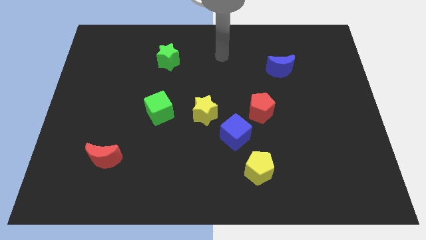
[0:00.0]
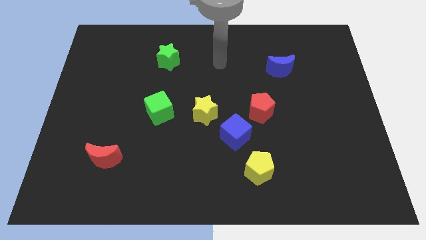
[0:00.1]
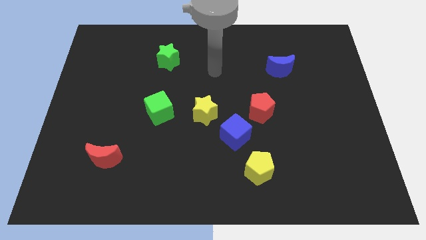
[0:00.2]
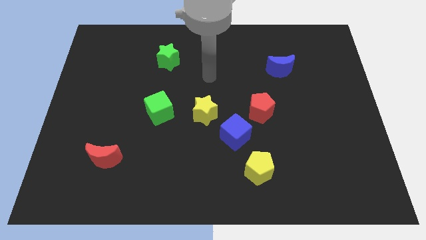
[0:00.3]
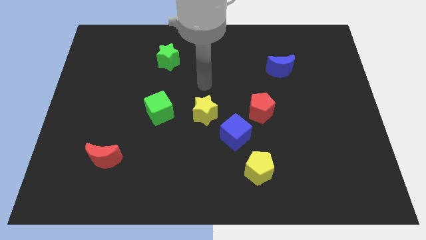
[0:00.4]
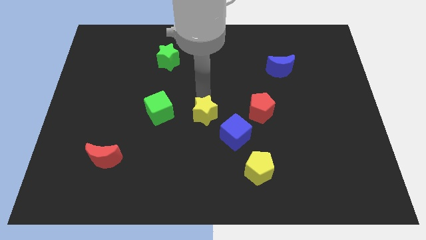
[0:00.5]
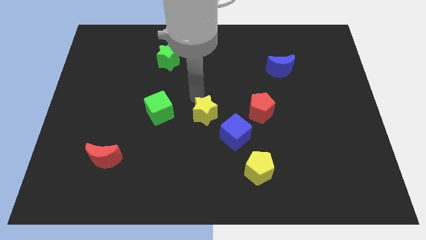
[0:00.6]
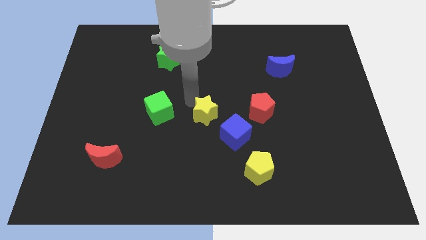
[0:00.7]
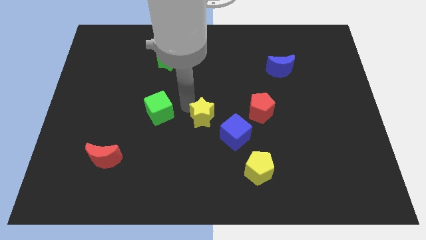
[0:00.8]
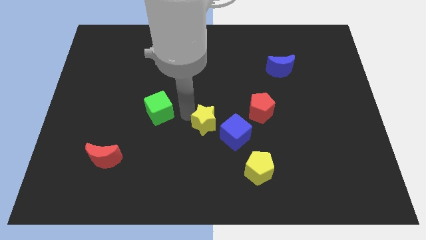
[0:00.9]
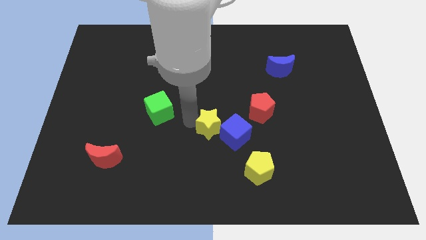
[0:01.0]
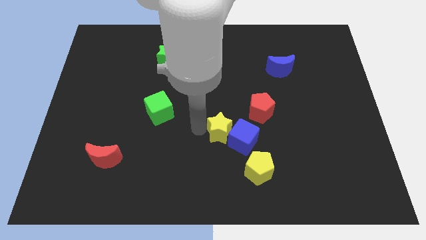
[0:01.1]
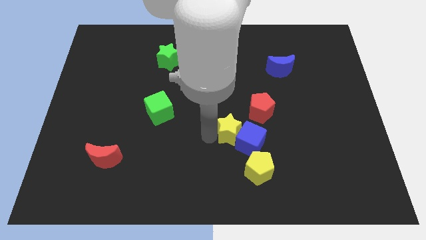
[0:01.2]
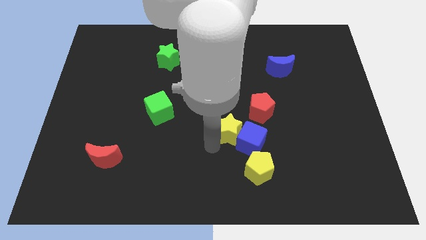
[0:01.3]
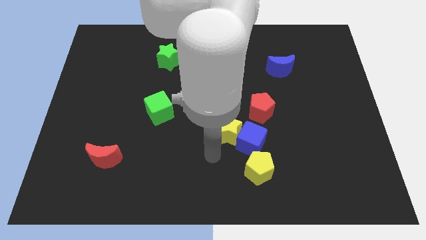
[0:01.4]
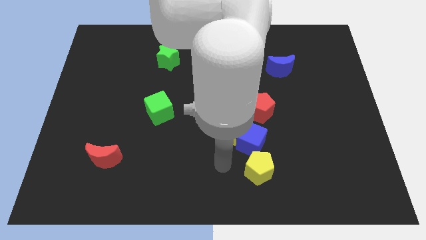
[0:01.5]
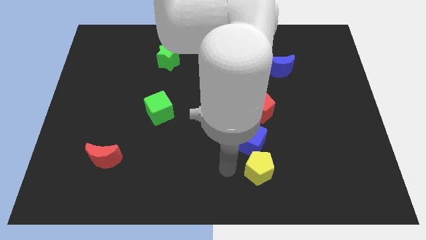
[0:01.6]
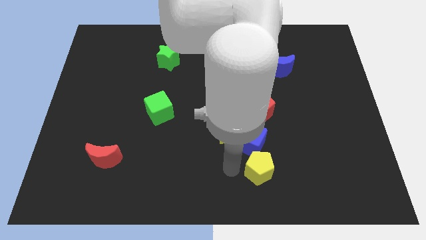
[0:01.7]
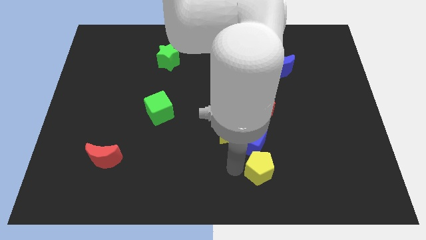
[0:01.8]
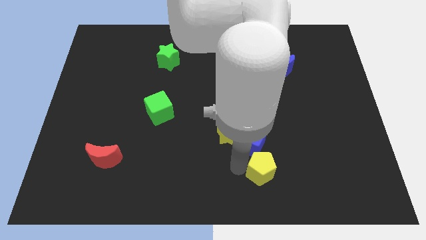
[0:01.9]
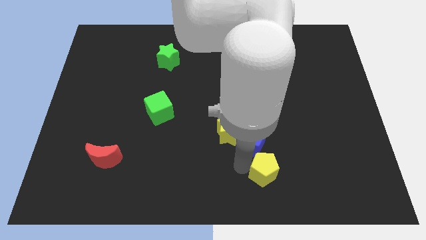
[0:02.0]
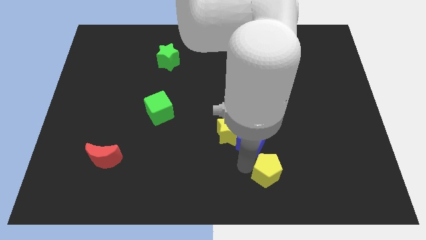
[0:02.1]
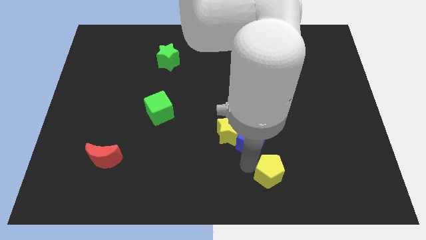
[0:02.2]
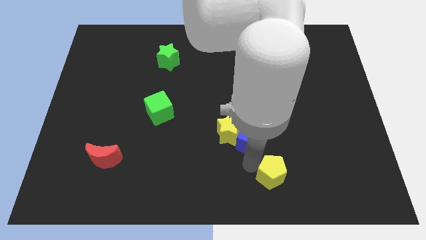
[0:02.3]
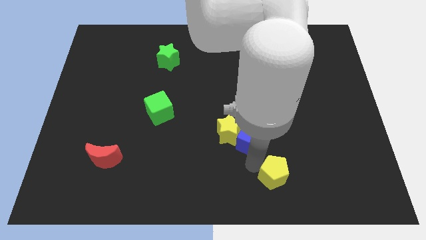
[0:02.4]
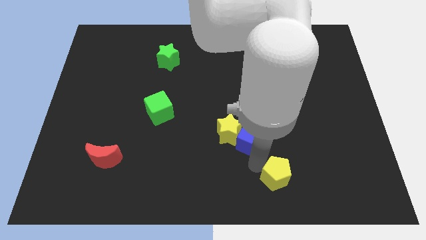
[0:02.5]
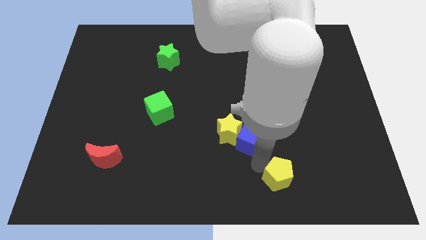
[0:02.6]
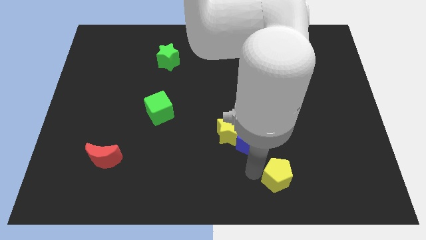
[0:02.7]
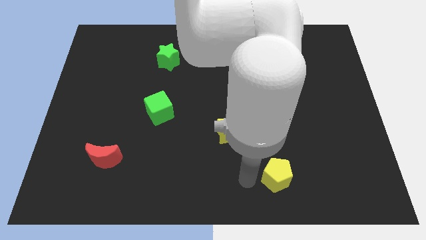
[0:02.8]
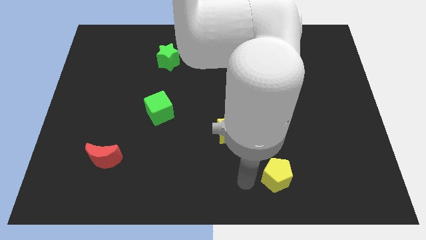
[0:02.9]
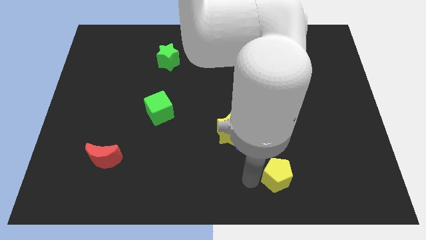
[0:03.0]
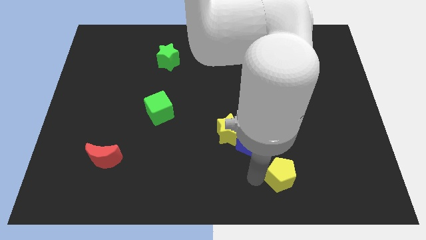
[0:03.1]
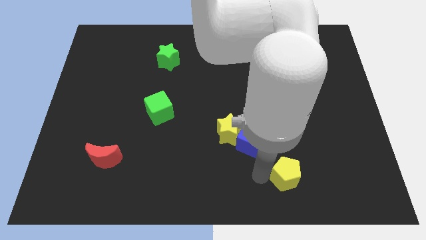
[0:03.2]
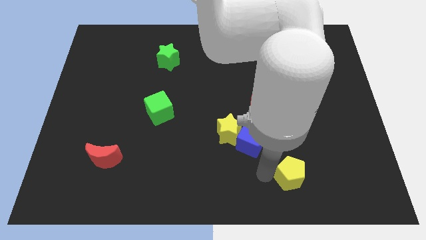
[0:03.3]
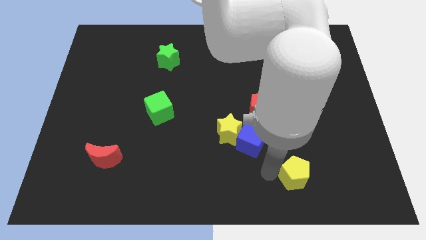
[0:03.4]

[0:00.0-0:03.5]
slightly move the yellow pentagon right

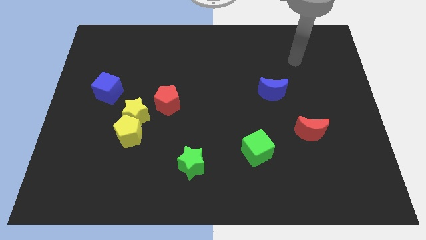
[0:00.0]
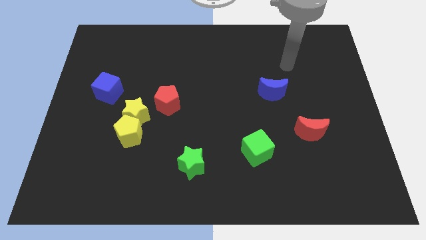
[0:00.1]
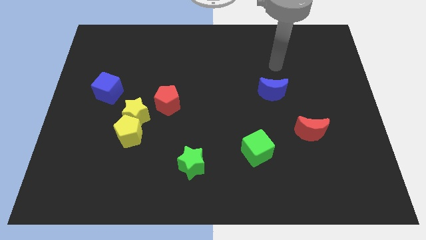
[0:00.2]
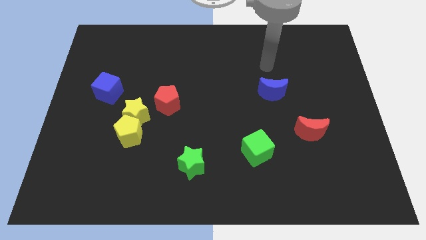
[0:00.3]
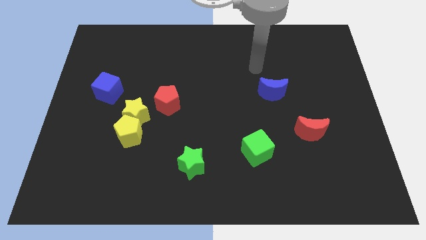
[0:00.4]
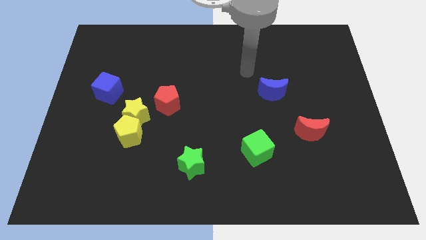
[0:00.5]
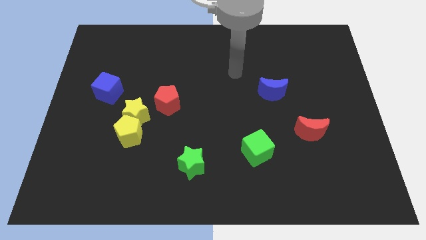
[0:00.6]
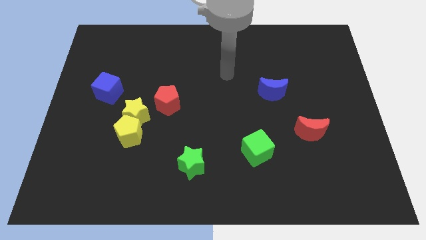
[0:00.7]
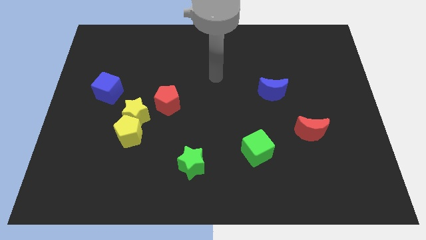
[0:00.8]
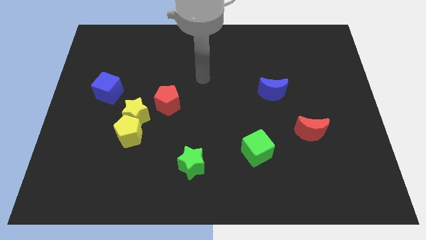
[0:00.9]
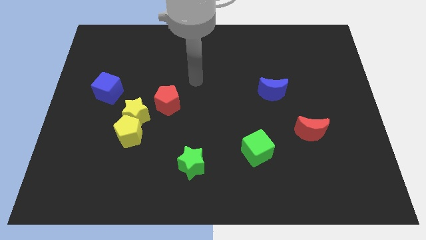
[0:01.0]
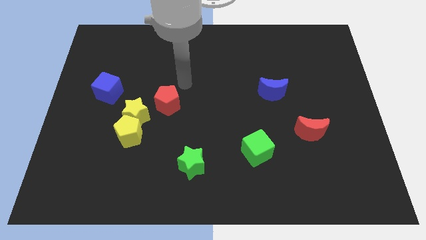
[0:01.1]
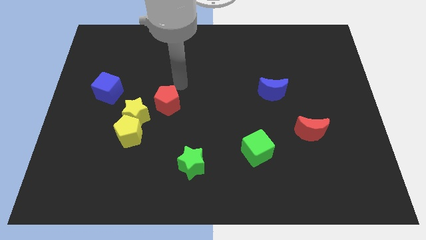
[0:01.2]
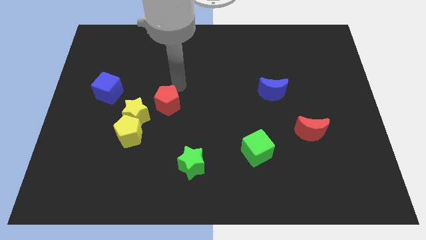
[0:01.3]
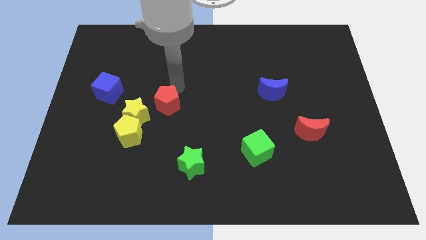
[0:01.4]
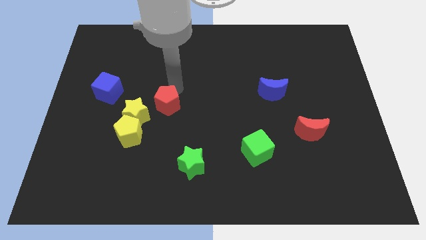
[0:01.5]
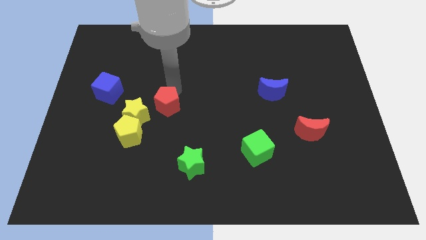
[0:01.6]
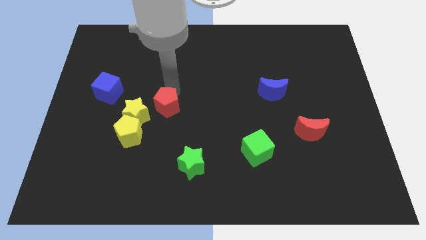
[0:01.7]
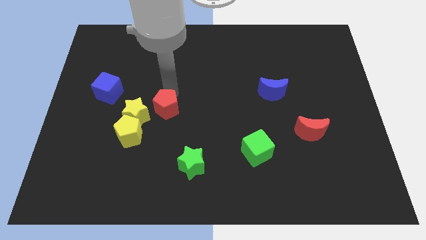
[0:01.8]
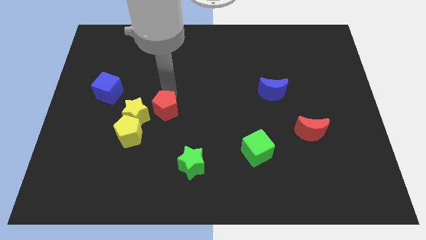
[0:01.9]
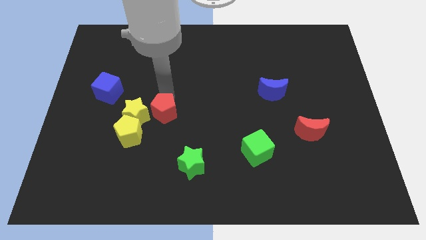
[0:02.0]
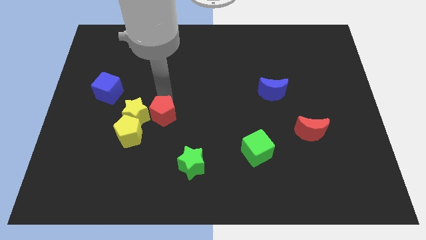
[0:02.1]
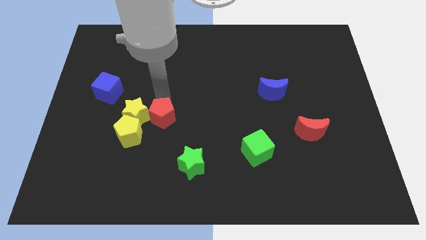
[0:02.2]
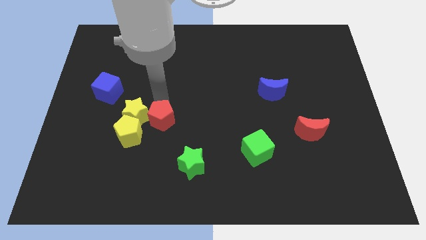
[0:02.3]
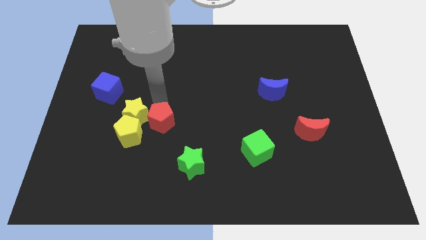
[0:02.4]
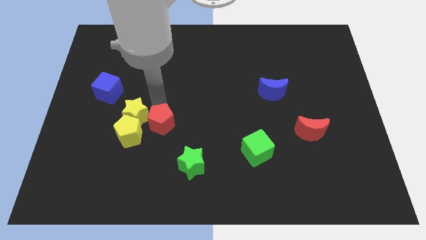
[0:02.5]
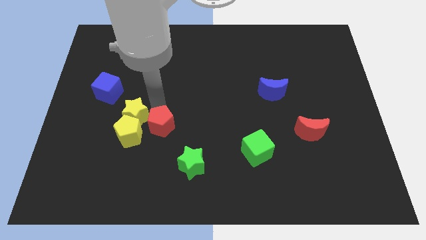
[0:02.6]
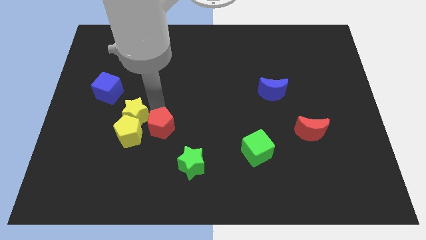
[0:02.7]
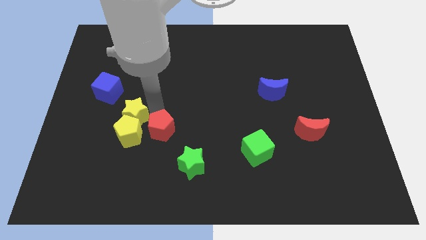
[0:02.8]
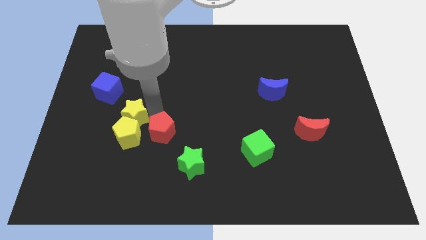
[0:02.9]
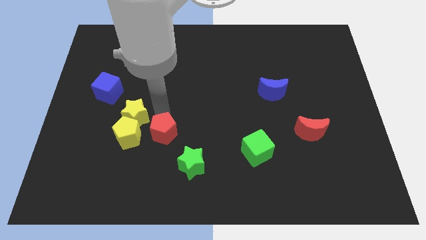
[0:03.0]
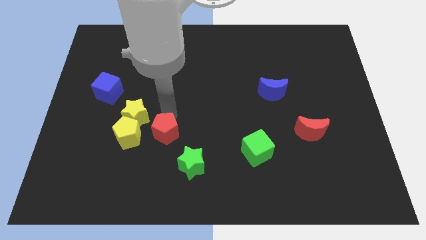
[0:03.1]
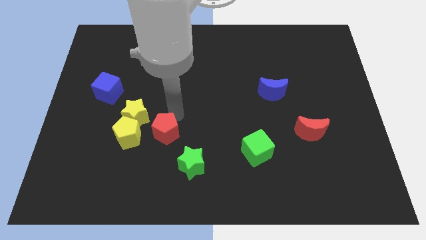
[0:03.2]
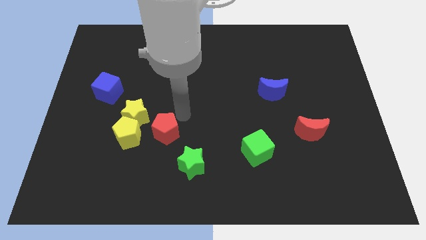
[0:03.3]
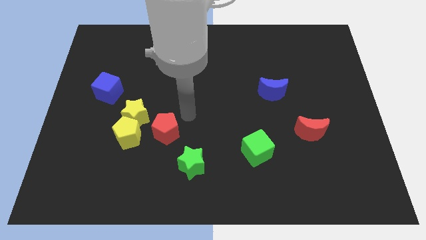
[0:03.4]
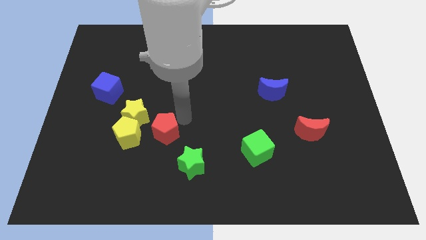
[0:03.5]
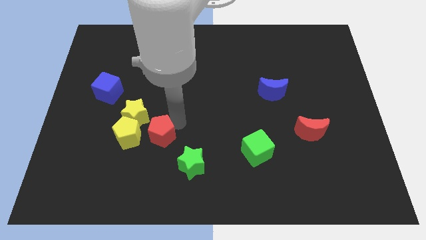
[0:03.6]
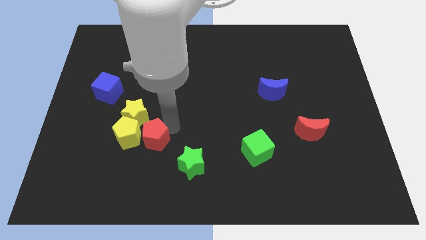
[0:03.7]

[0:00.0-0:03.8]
move the red pentagon a little bit down and to the left

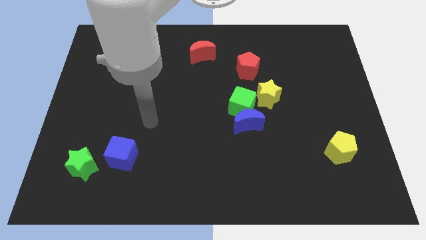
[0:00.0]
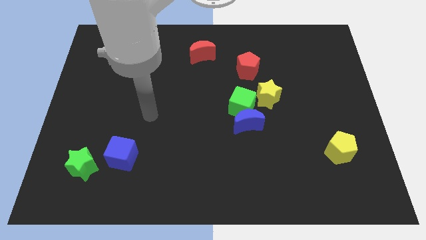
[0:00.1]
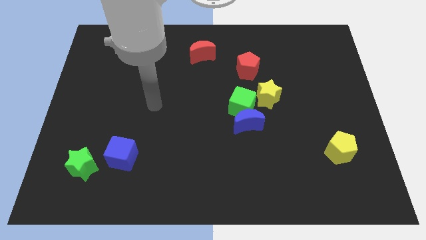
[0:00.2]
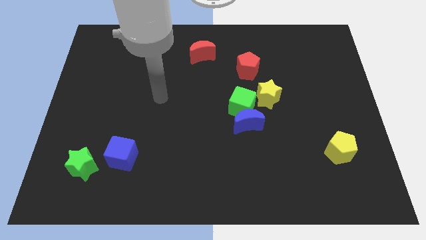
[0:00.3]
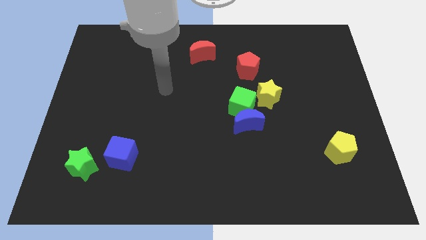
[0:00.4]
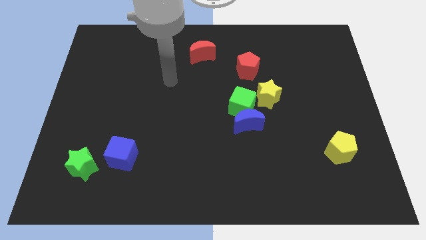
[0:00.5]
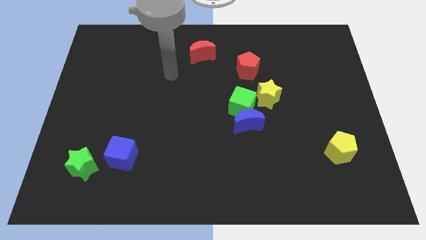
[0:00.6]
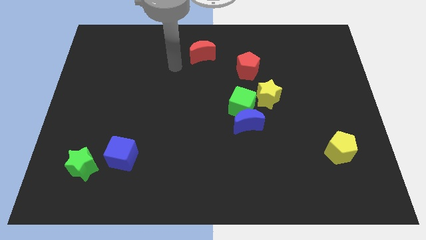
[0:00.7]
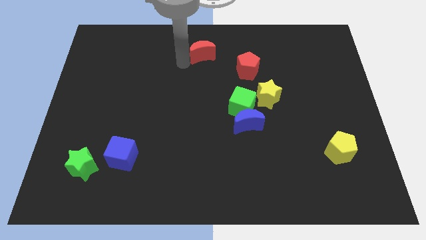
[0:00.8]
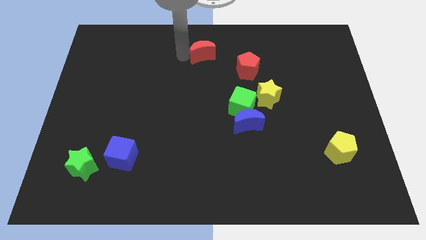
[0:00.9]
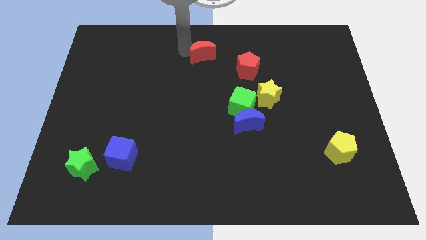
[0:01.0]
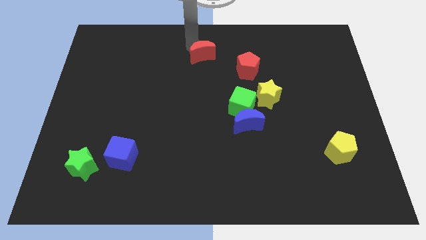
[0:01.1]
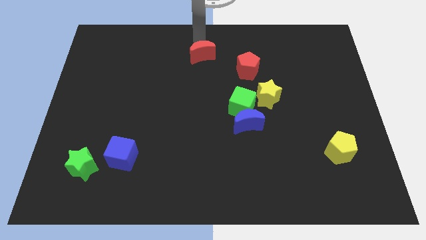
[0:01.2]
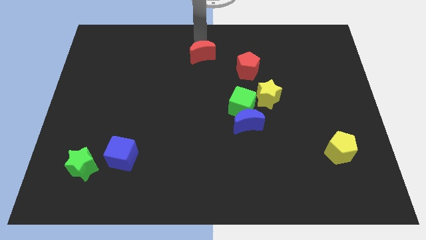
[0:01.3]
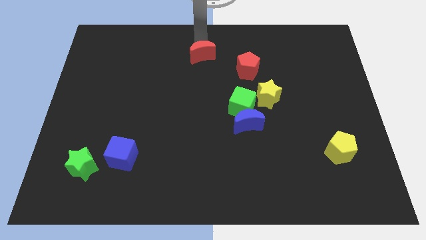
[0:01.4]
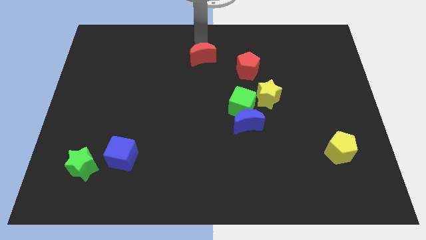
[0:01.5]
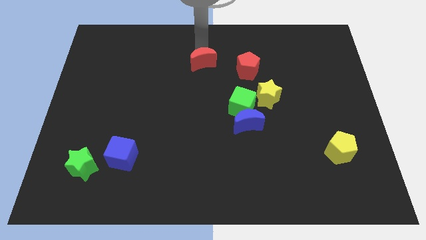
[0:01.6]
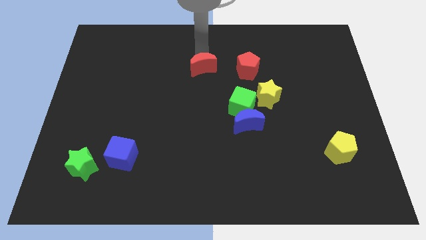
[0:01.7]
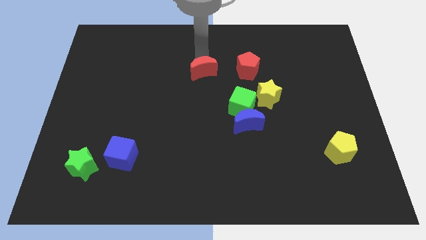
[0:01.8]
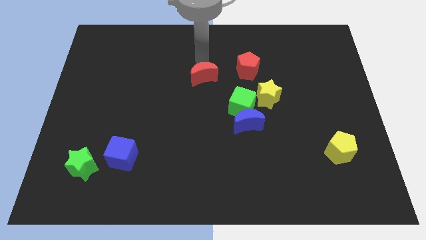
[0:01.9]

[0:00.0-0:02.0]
slide the red moon down somewhat
